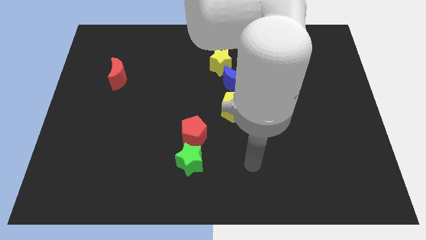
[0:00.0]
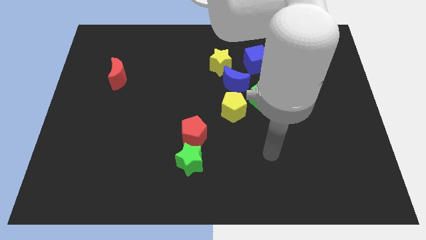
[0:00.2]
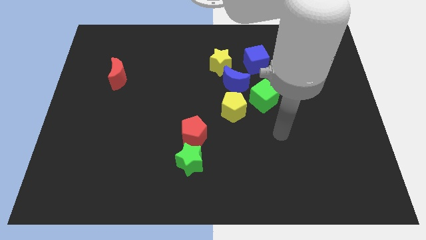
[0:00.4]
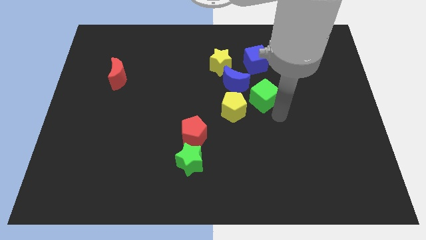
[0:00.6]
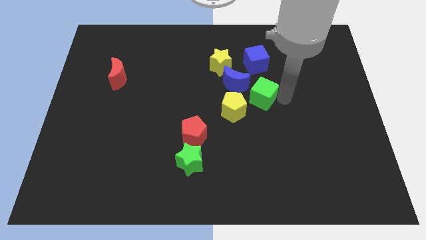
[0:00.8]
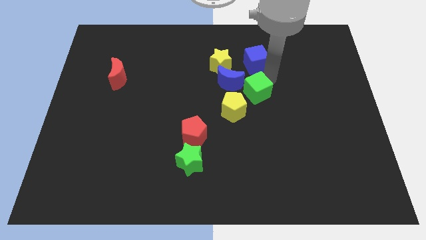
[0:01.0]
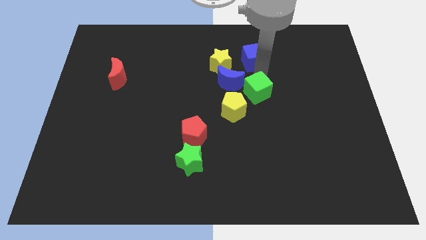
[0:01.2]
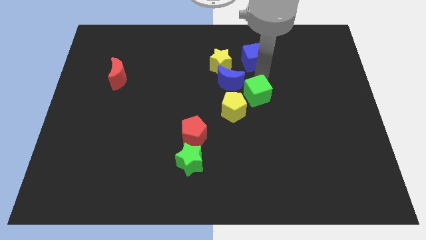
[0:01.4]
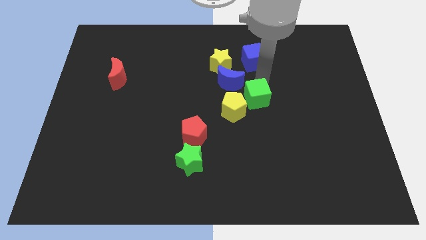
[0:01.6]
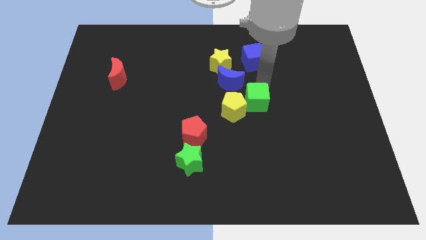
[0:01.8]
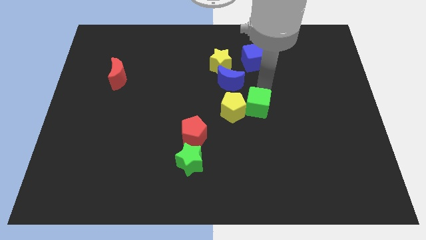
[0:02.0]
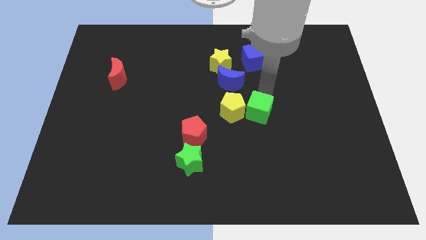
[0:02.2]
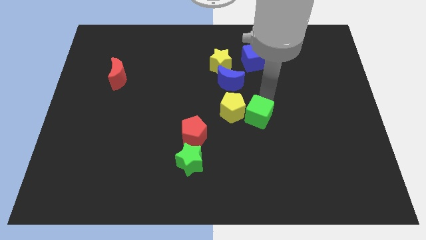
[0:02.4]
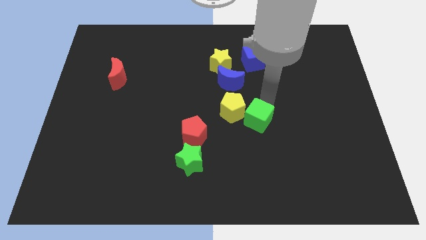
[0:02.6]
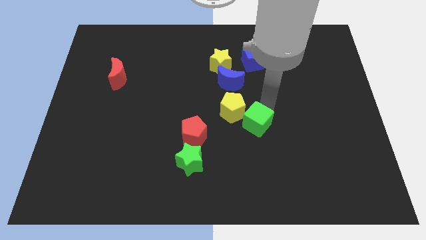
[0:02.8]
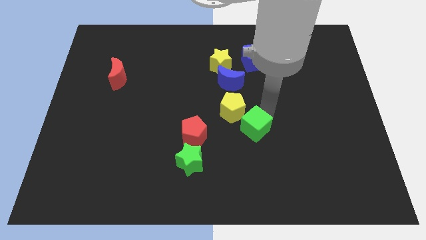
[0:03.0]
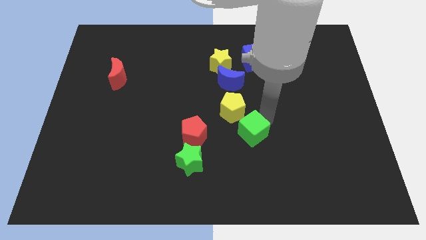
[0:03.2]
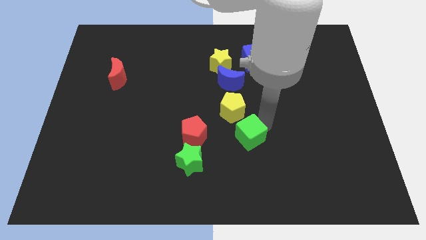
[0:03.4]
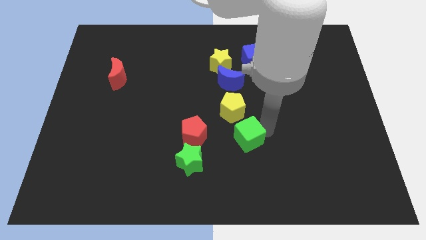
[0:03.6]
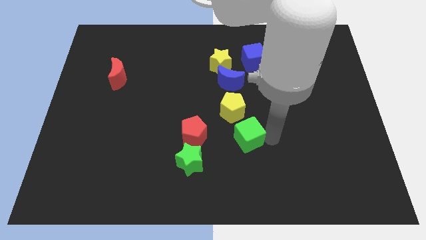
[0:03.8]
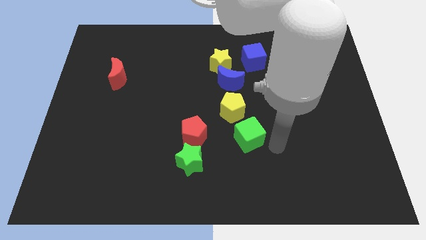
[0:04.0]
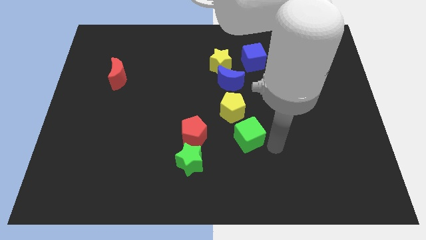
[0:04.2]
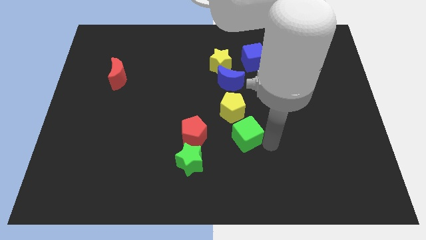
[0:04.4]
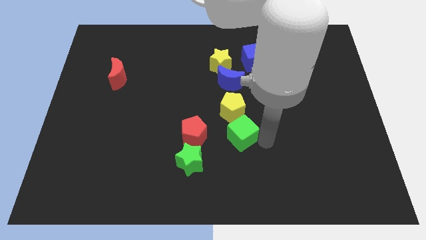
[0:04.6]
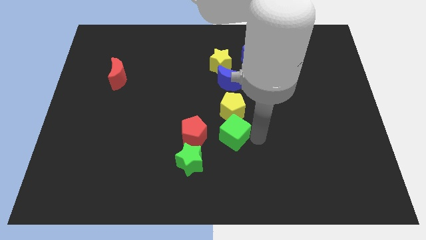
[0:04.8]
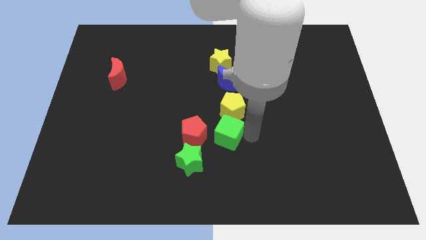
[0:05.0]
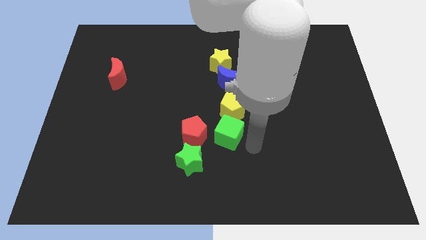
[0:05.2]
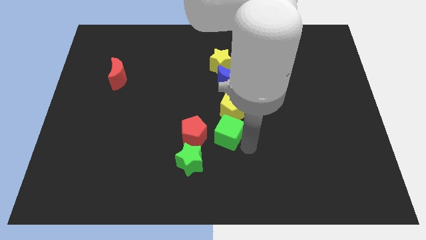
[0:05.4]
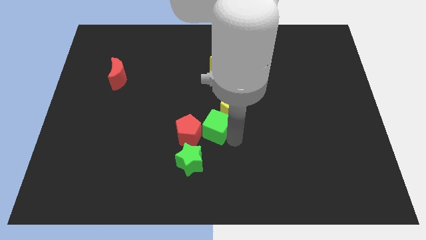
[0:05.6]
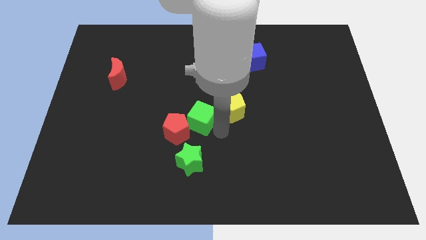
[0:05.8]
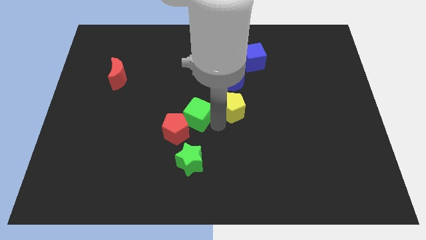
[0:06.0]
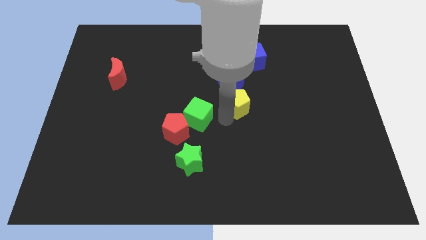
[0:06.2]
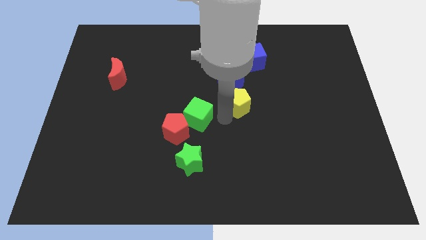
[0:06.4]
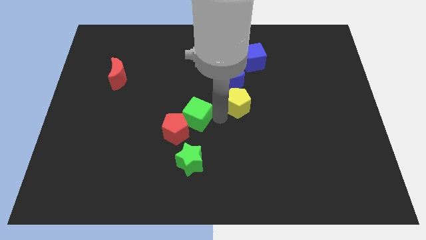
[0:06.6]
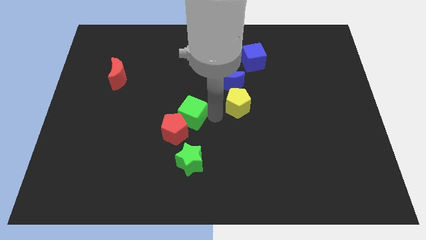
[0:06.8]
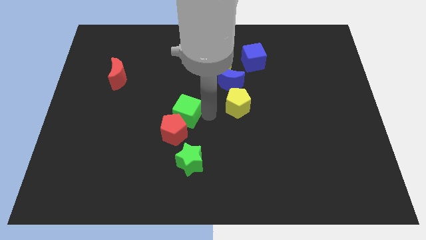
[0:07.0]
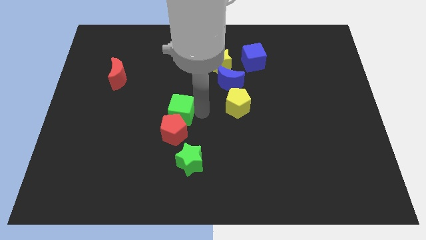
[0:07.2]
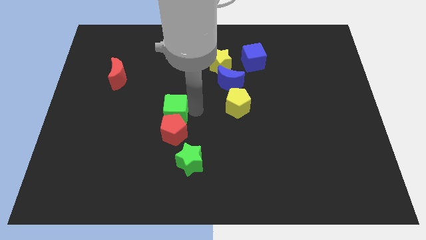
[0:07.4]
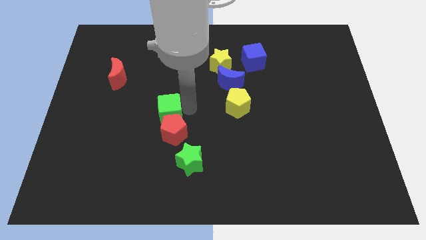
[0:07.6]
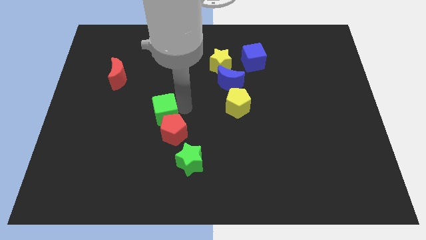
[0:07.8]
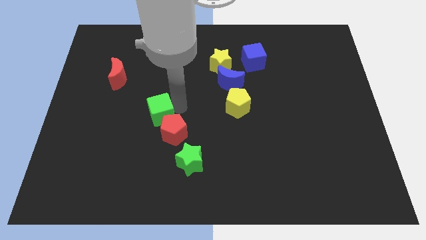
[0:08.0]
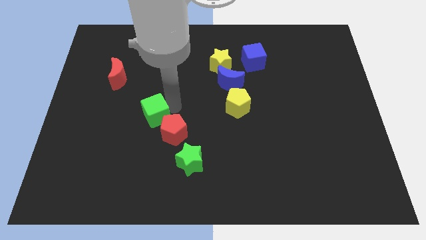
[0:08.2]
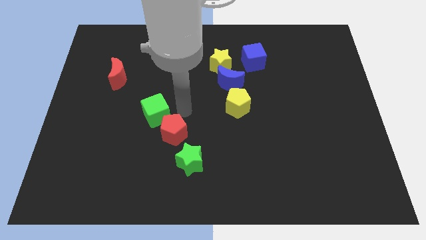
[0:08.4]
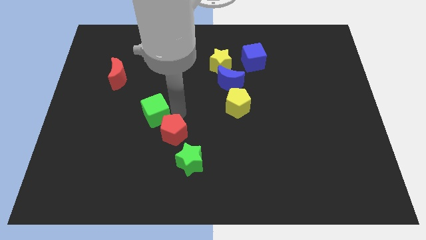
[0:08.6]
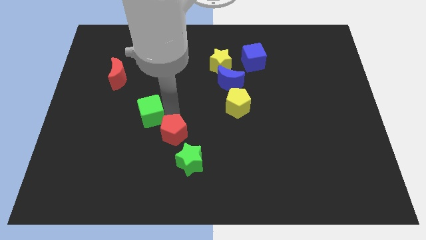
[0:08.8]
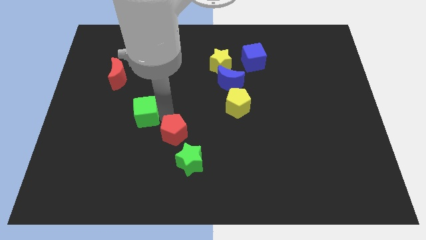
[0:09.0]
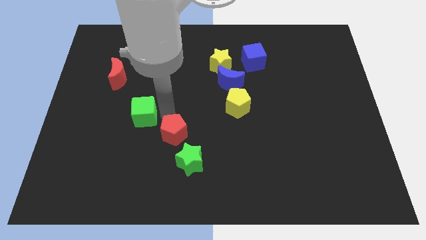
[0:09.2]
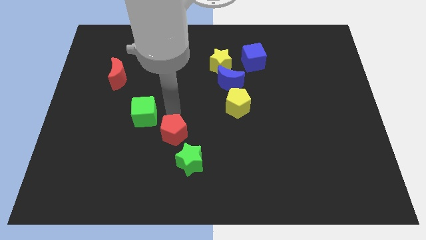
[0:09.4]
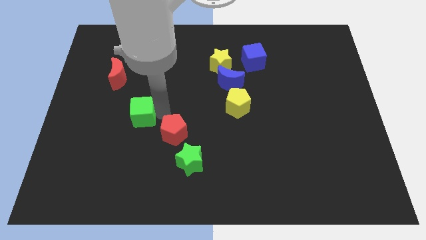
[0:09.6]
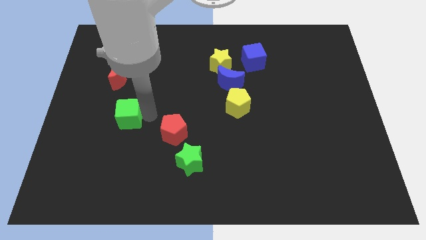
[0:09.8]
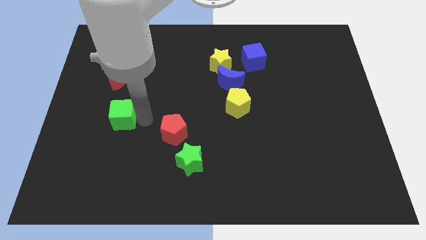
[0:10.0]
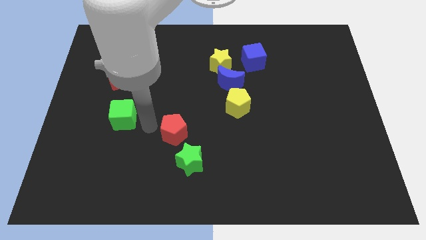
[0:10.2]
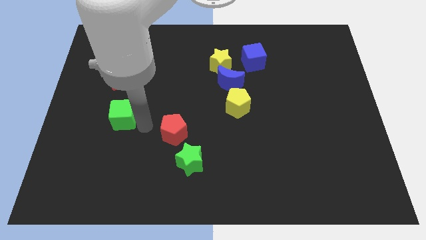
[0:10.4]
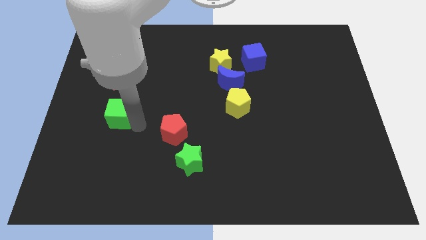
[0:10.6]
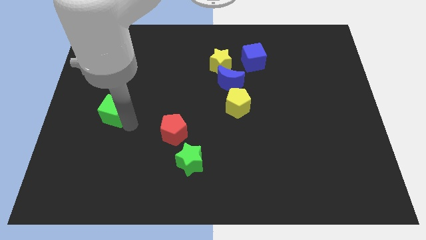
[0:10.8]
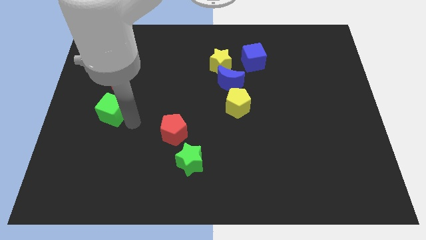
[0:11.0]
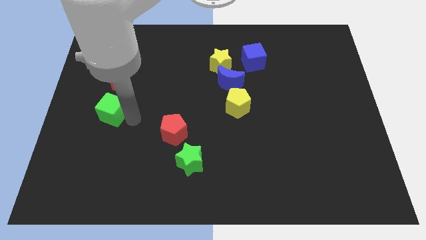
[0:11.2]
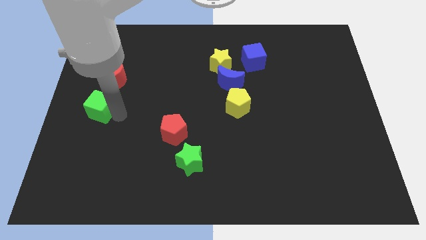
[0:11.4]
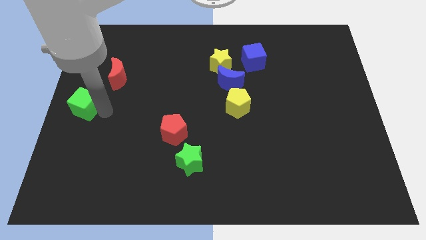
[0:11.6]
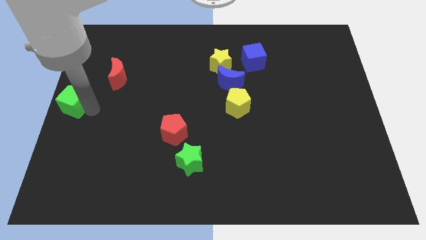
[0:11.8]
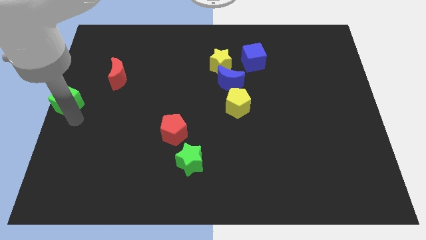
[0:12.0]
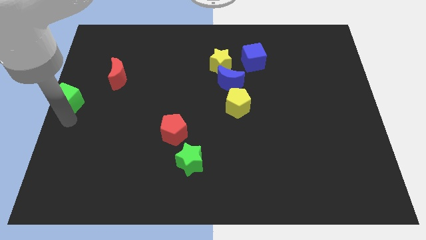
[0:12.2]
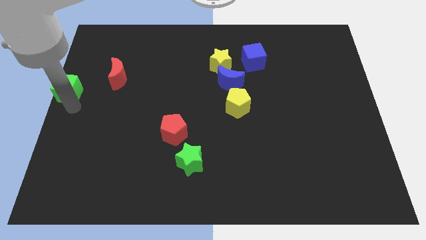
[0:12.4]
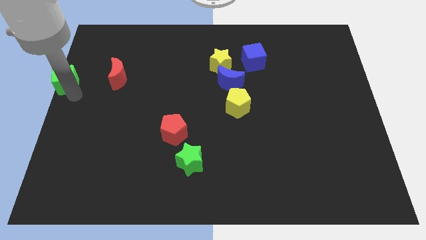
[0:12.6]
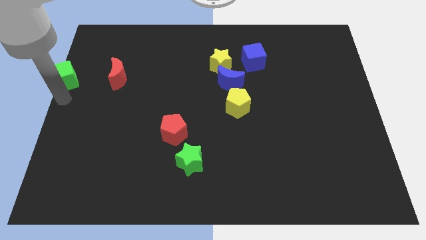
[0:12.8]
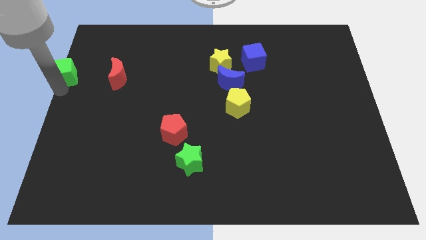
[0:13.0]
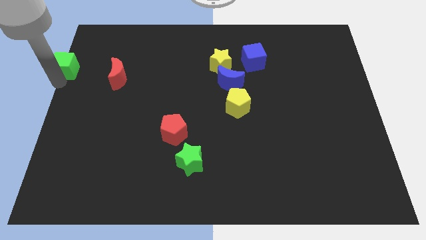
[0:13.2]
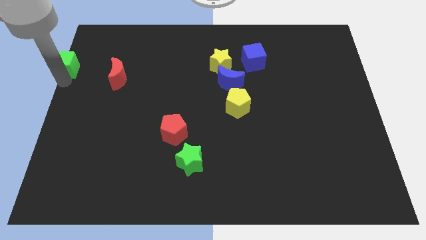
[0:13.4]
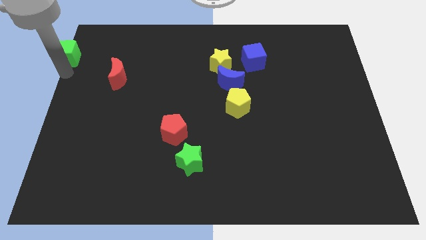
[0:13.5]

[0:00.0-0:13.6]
put the green cube to the top left corner
